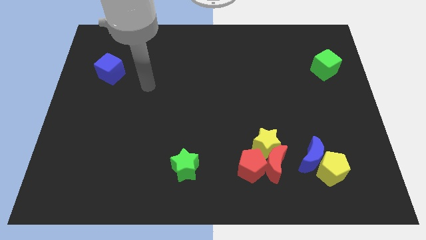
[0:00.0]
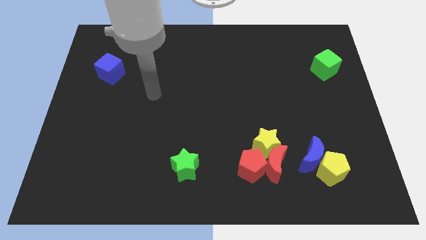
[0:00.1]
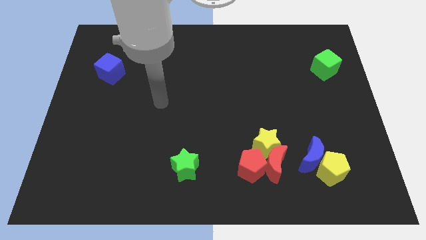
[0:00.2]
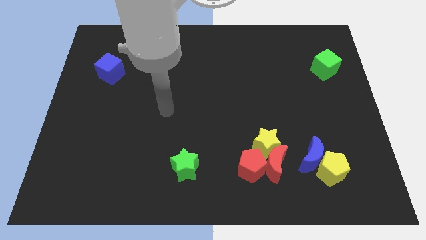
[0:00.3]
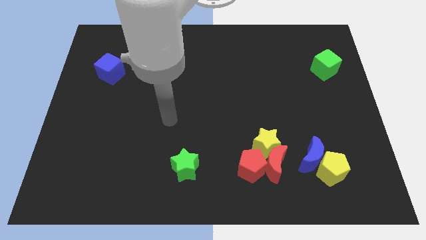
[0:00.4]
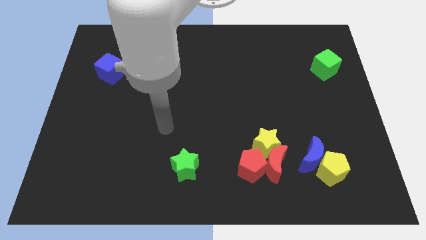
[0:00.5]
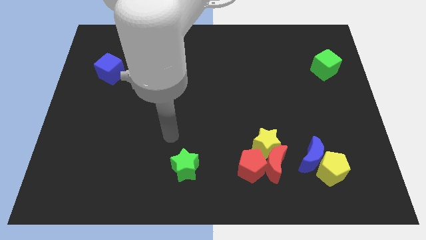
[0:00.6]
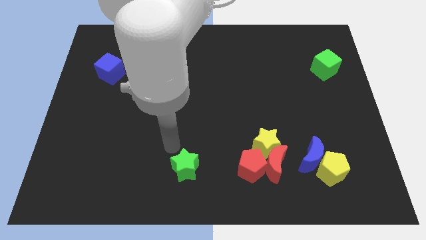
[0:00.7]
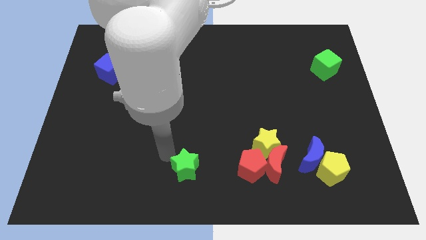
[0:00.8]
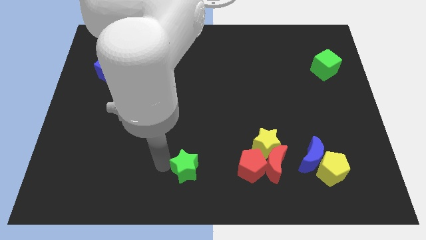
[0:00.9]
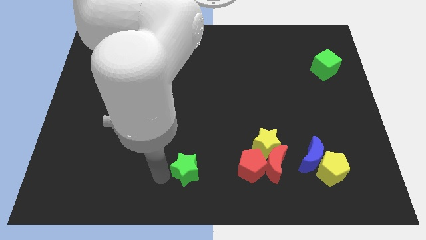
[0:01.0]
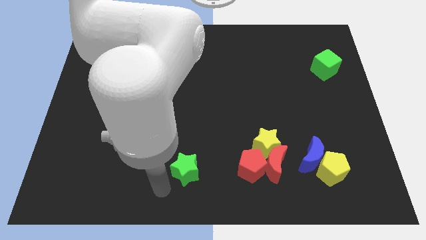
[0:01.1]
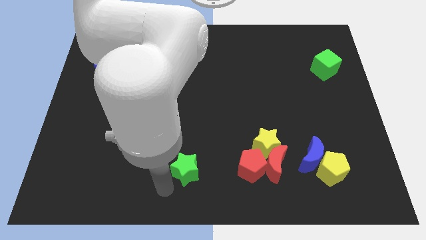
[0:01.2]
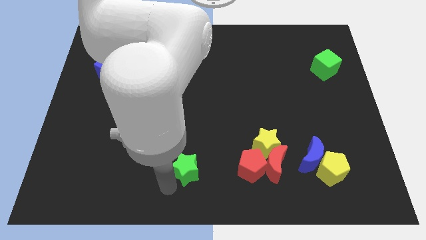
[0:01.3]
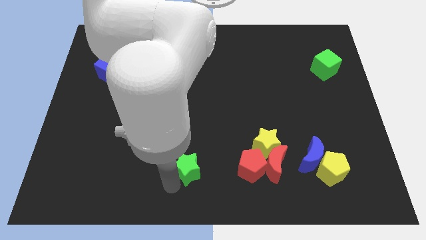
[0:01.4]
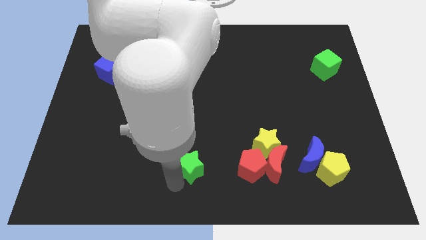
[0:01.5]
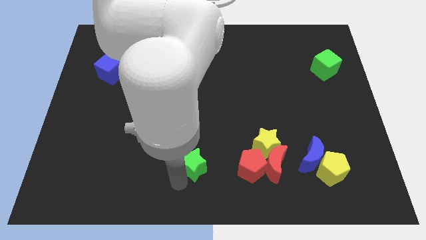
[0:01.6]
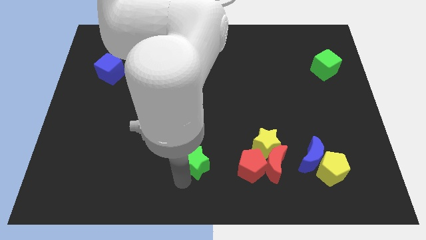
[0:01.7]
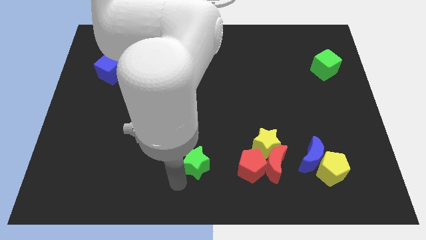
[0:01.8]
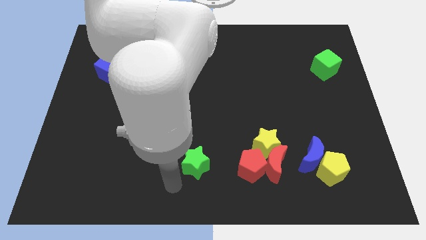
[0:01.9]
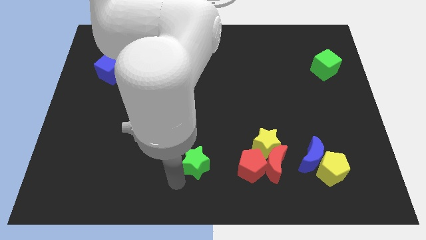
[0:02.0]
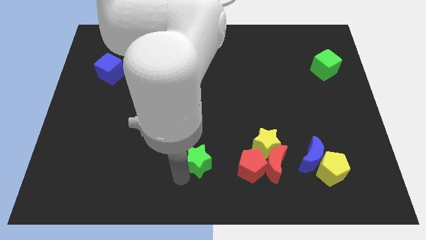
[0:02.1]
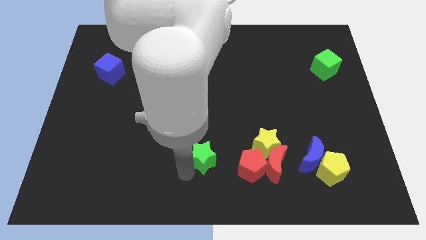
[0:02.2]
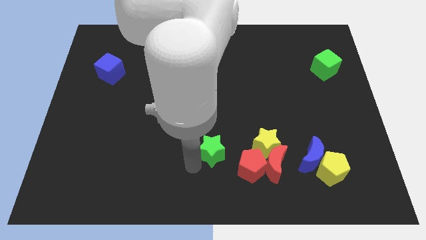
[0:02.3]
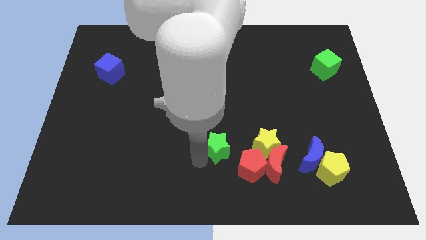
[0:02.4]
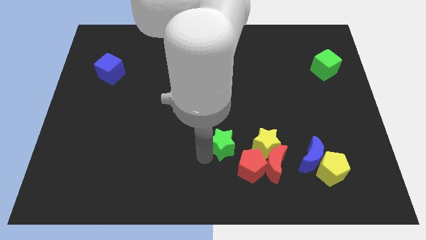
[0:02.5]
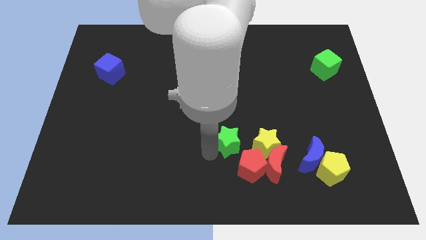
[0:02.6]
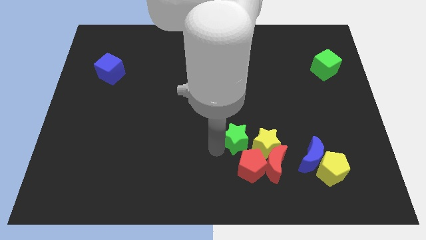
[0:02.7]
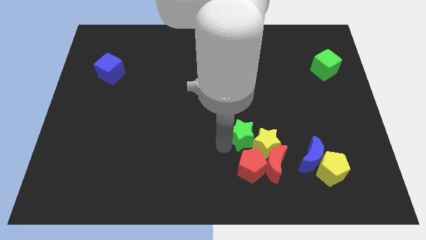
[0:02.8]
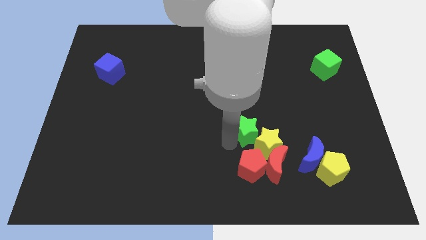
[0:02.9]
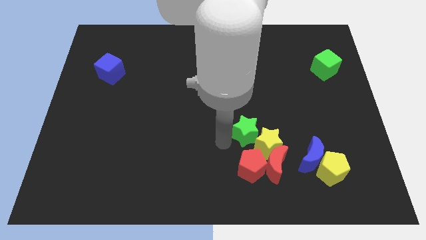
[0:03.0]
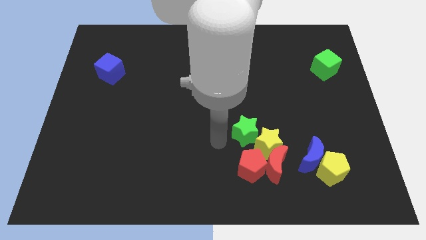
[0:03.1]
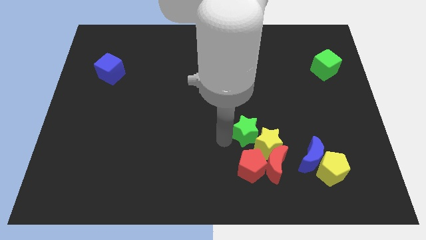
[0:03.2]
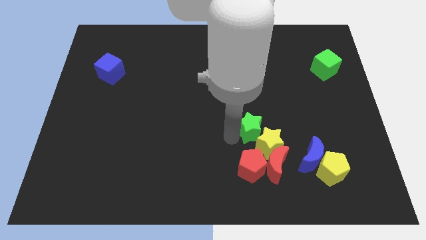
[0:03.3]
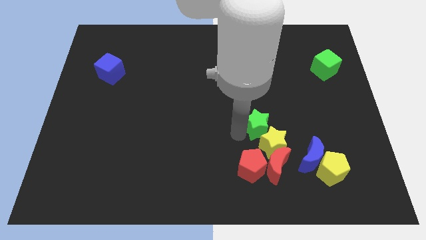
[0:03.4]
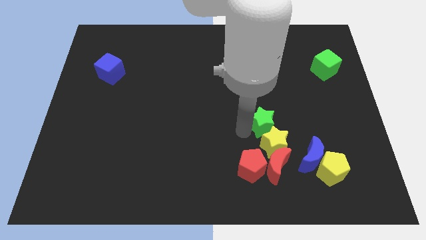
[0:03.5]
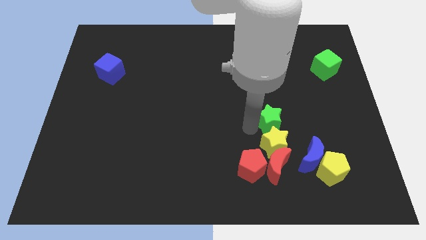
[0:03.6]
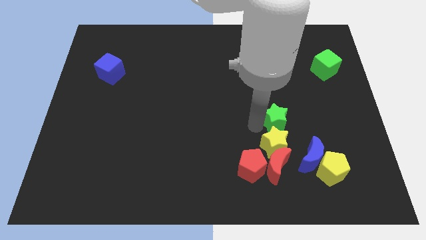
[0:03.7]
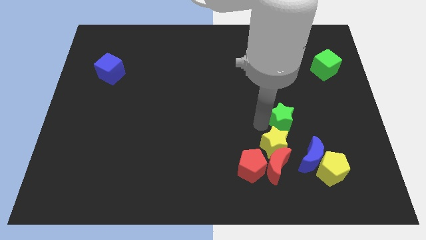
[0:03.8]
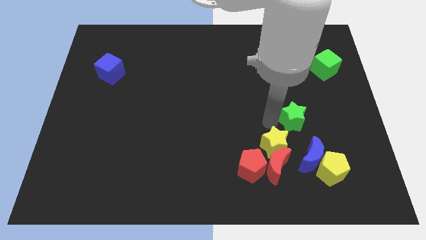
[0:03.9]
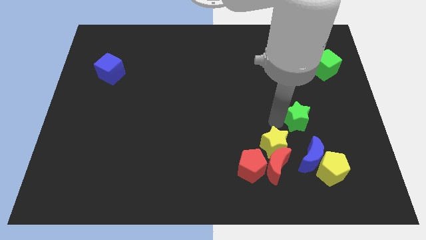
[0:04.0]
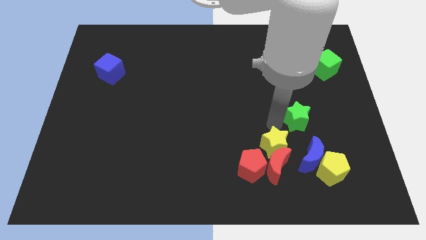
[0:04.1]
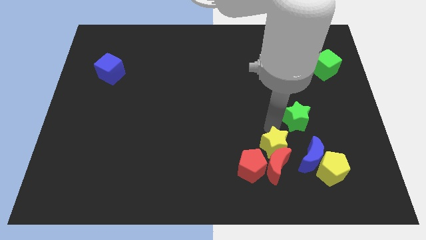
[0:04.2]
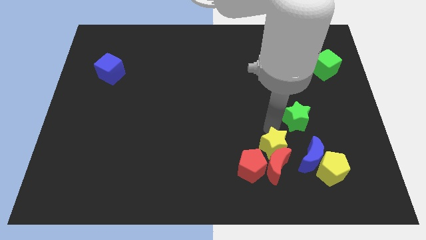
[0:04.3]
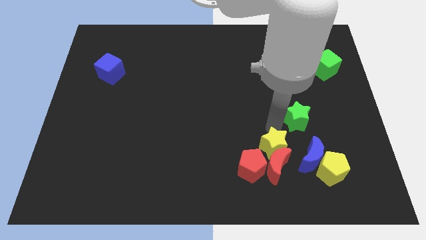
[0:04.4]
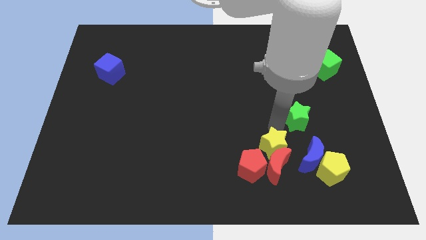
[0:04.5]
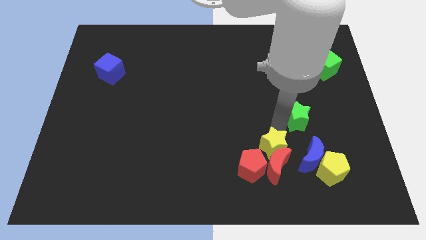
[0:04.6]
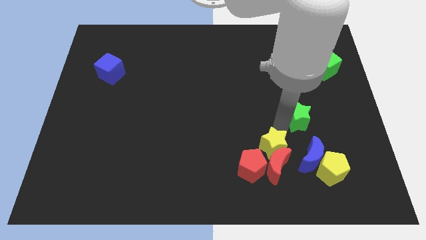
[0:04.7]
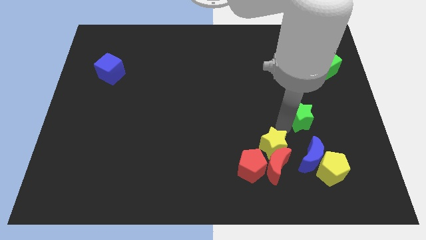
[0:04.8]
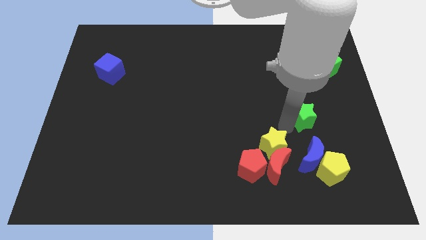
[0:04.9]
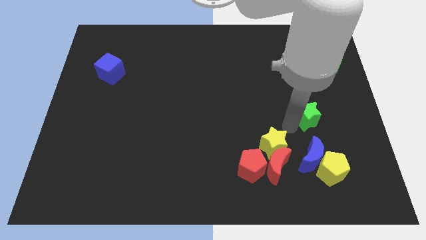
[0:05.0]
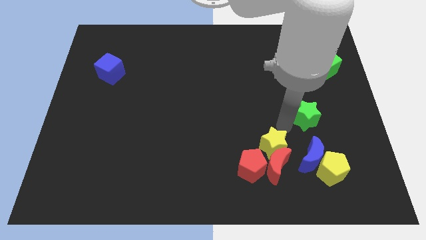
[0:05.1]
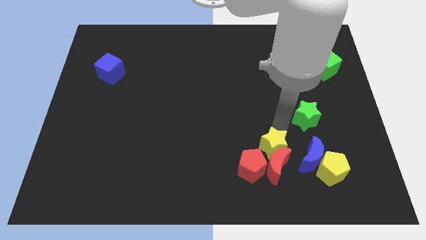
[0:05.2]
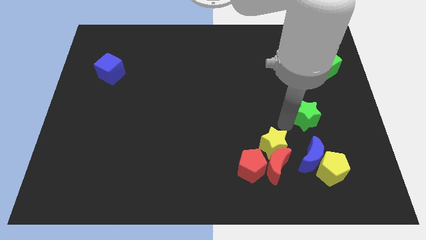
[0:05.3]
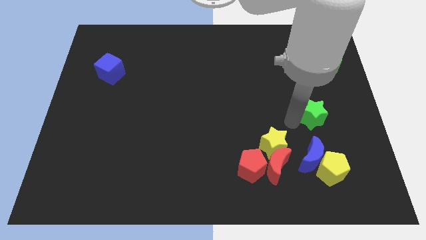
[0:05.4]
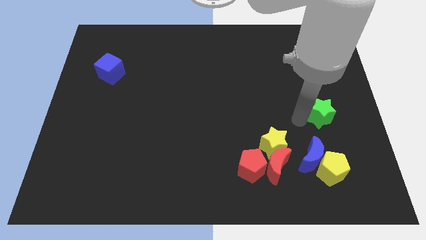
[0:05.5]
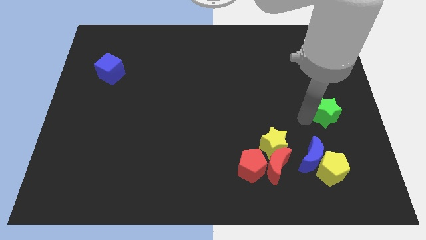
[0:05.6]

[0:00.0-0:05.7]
move the green star to the right side of the board

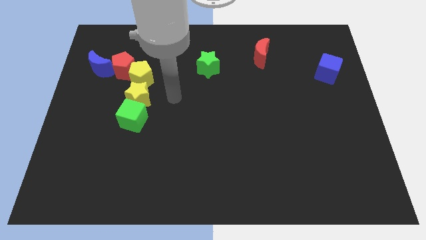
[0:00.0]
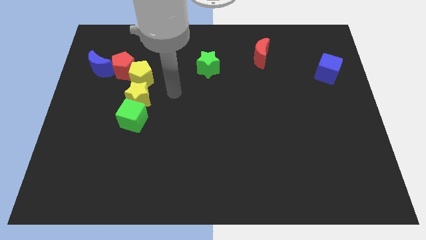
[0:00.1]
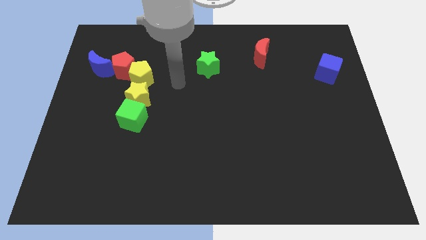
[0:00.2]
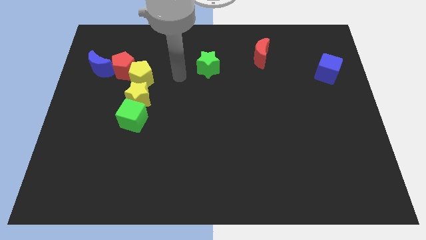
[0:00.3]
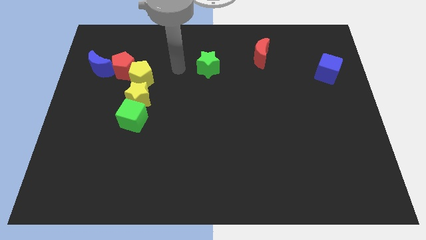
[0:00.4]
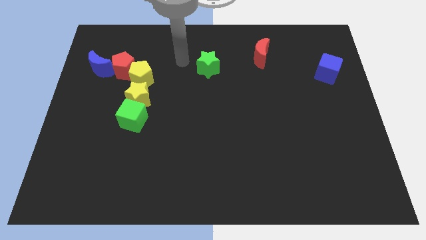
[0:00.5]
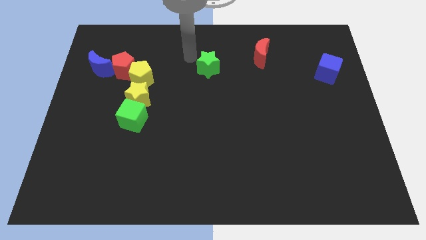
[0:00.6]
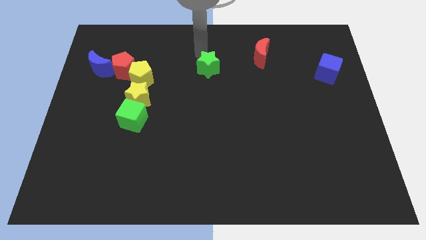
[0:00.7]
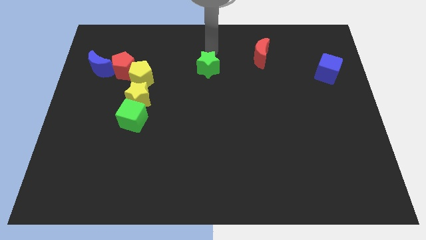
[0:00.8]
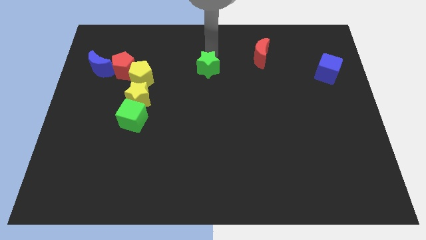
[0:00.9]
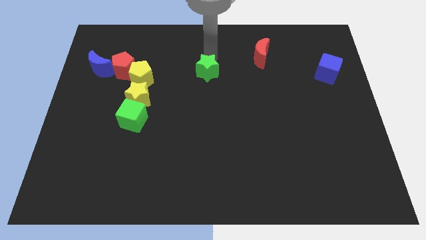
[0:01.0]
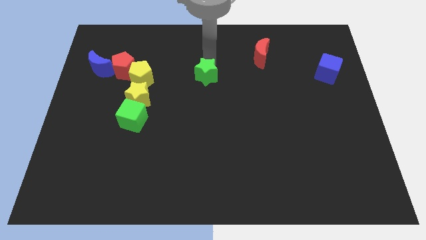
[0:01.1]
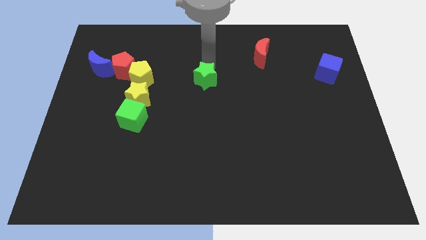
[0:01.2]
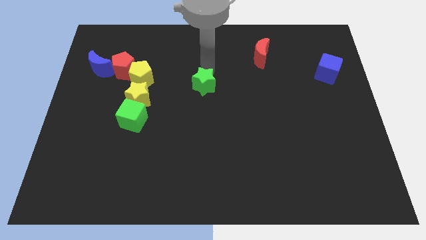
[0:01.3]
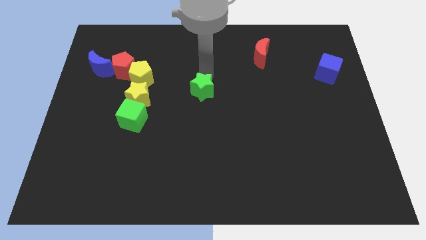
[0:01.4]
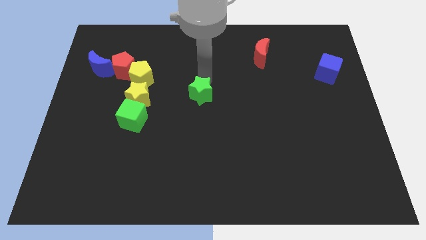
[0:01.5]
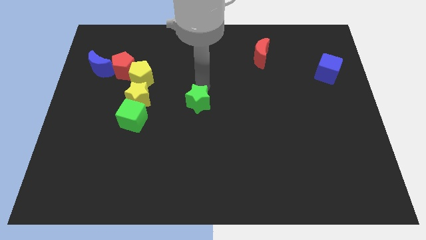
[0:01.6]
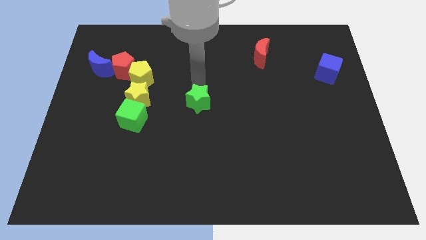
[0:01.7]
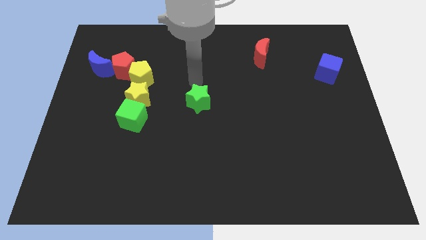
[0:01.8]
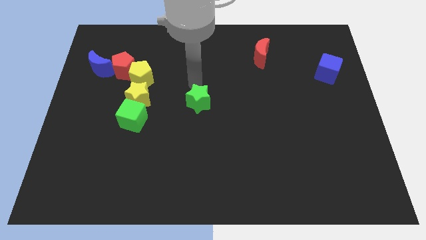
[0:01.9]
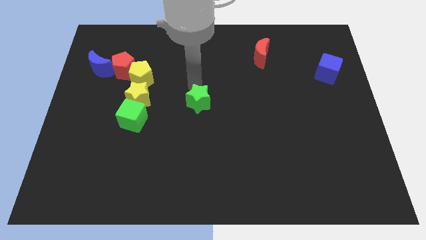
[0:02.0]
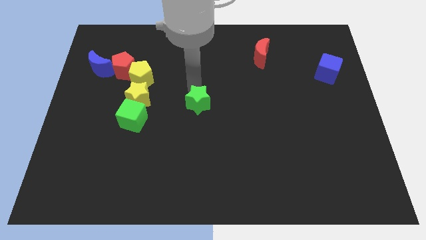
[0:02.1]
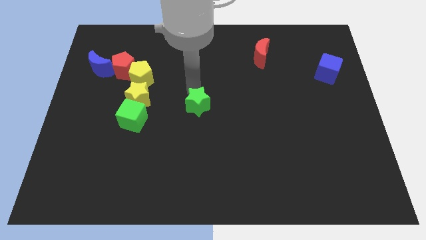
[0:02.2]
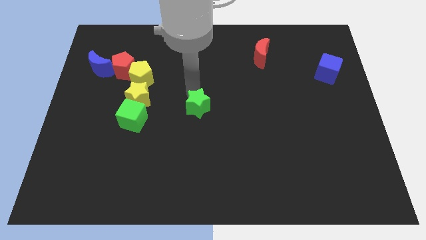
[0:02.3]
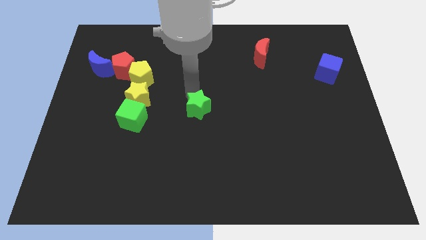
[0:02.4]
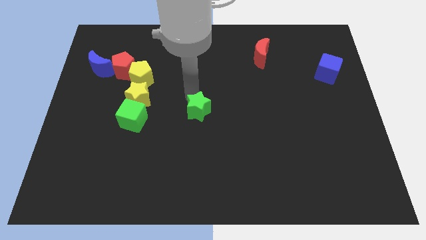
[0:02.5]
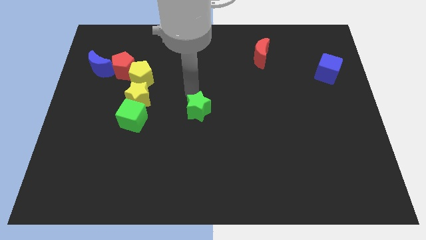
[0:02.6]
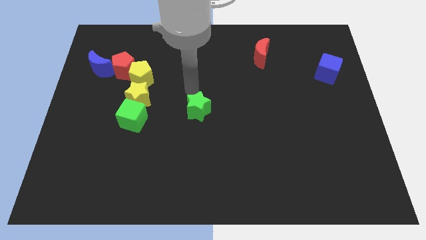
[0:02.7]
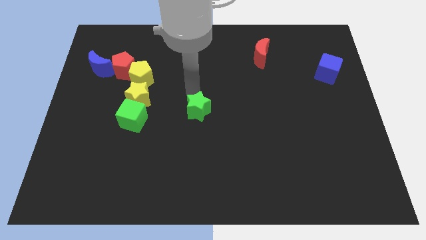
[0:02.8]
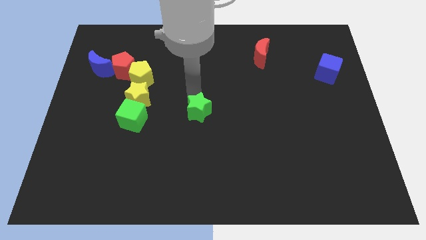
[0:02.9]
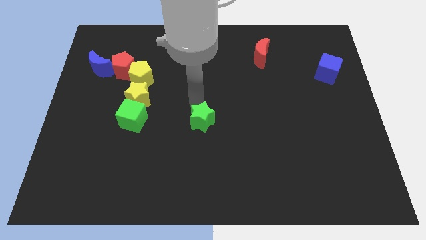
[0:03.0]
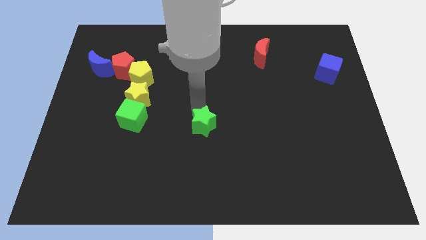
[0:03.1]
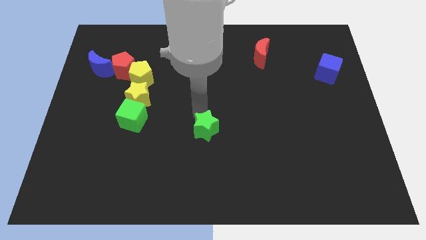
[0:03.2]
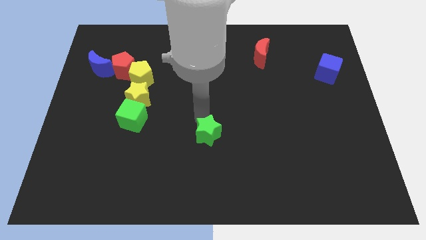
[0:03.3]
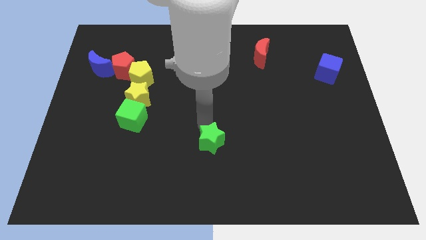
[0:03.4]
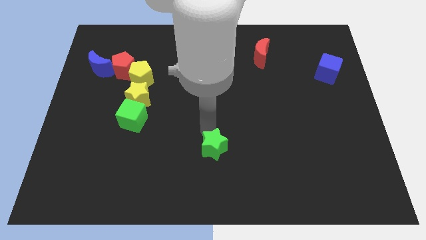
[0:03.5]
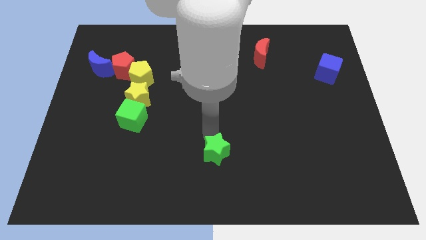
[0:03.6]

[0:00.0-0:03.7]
put the green star to the bottom
